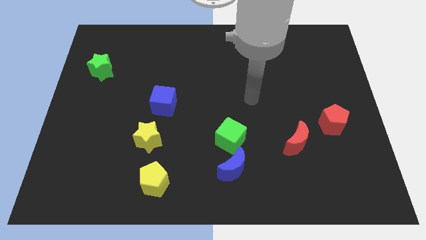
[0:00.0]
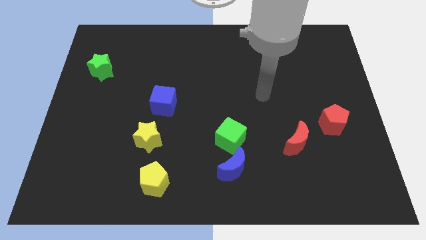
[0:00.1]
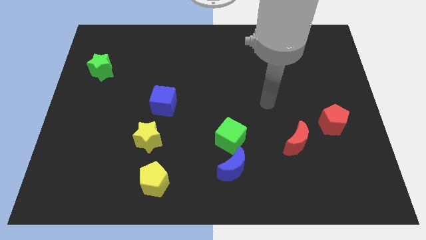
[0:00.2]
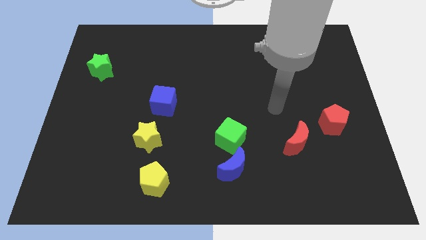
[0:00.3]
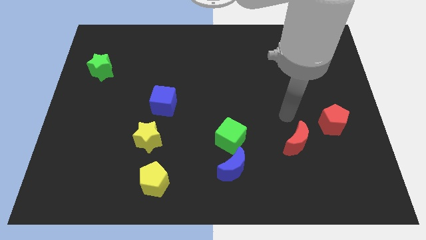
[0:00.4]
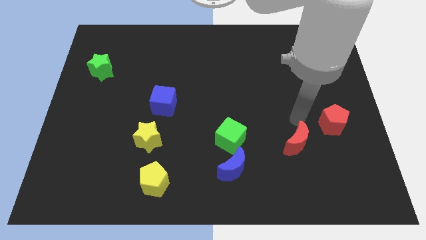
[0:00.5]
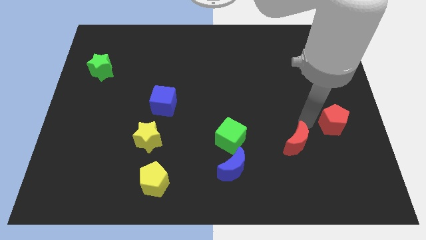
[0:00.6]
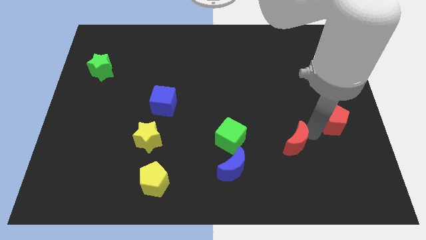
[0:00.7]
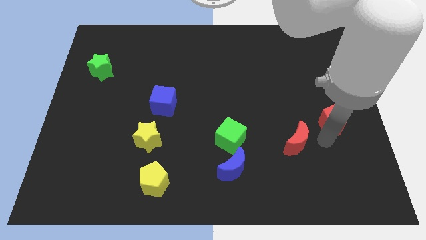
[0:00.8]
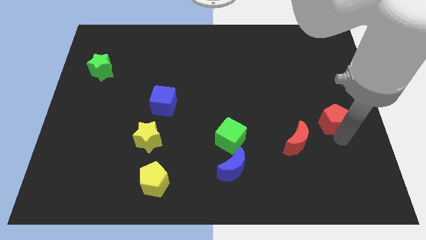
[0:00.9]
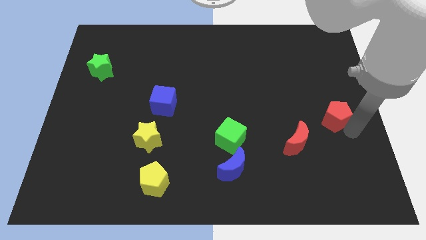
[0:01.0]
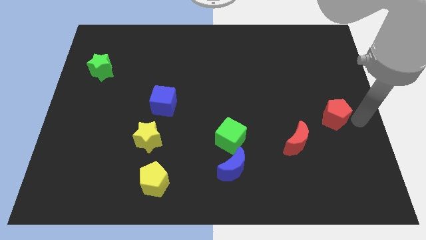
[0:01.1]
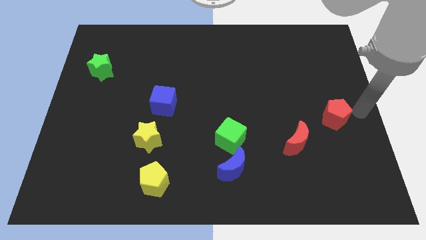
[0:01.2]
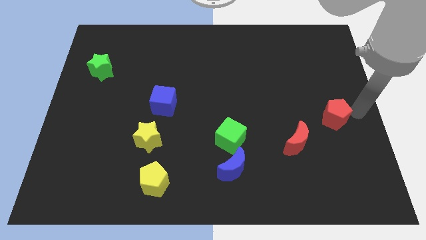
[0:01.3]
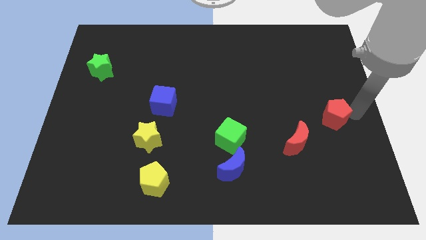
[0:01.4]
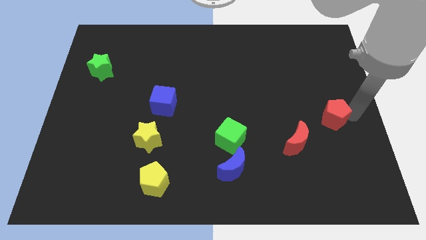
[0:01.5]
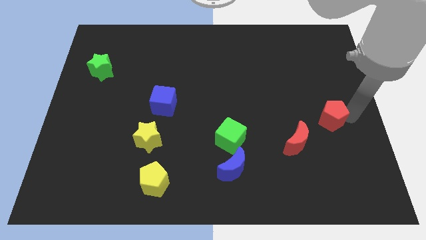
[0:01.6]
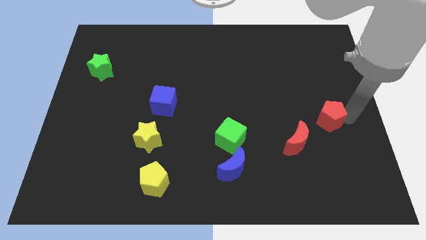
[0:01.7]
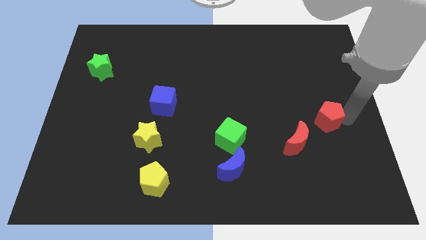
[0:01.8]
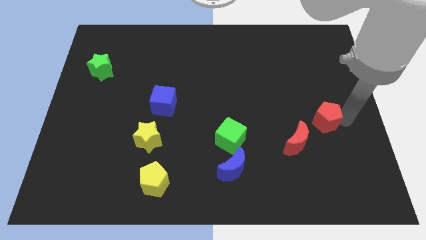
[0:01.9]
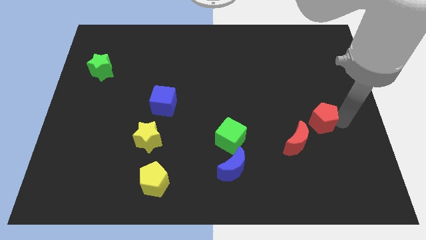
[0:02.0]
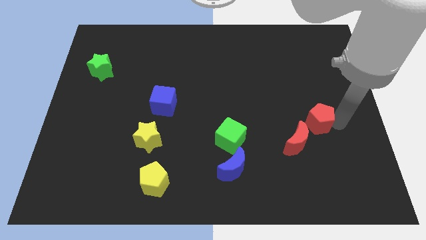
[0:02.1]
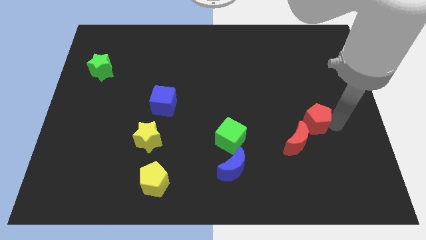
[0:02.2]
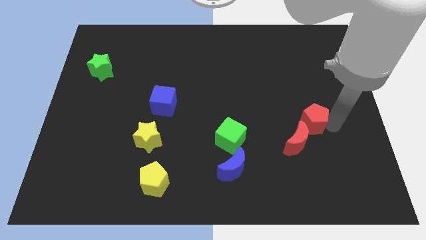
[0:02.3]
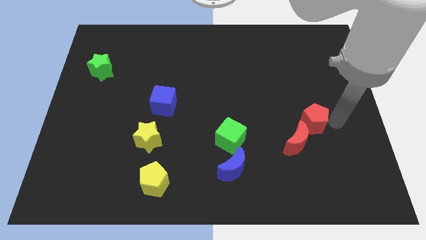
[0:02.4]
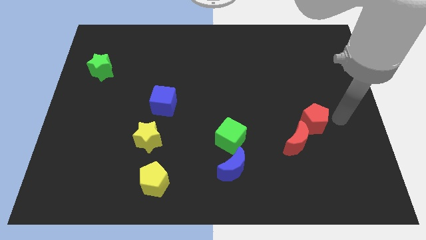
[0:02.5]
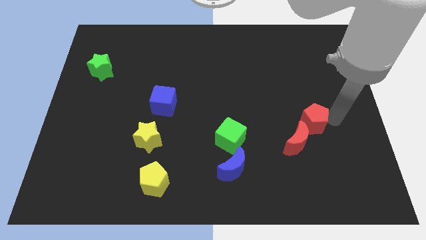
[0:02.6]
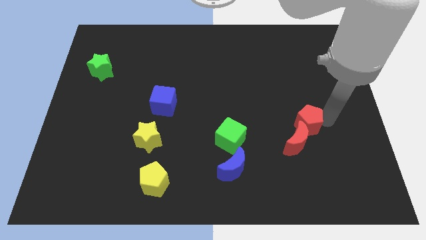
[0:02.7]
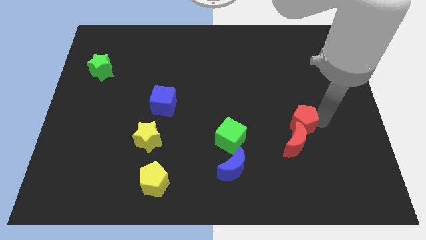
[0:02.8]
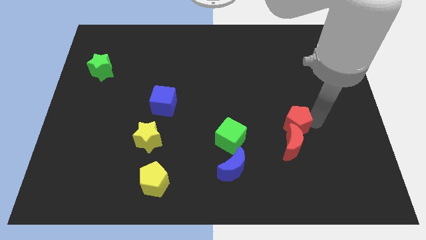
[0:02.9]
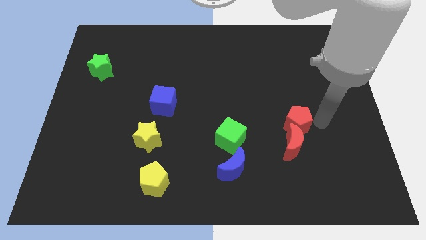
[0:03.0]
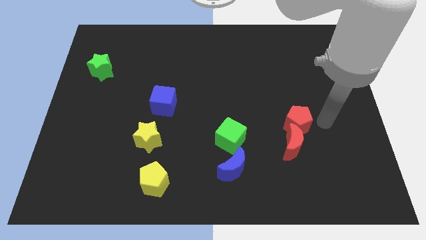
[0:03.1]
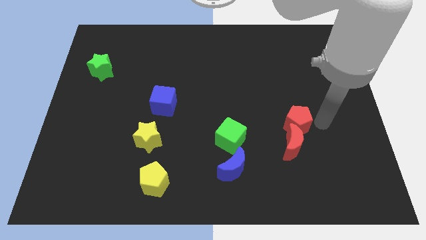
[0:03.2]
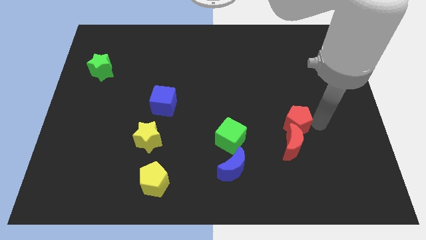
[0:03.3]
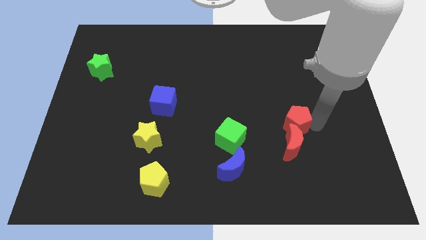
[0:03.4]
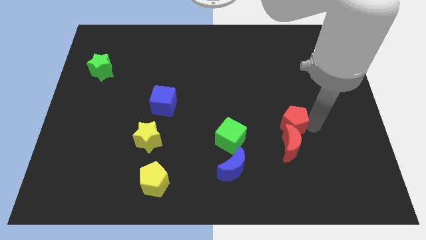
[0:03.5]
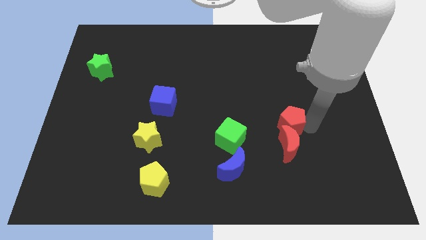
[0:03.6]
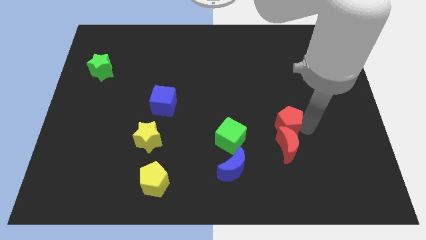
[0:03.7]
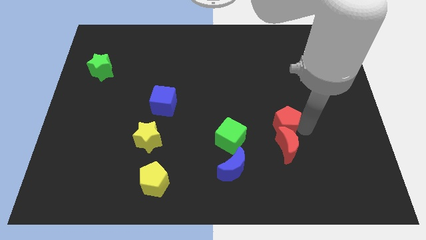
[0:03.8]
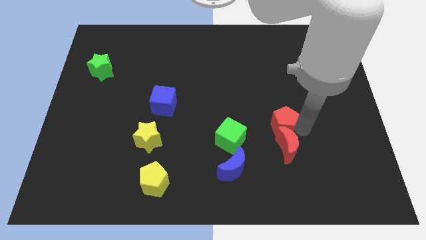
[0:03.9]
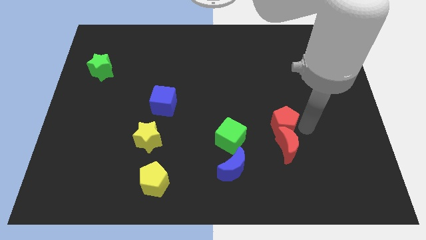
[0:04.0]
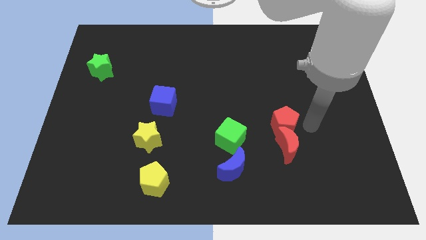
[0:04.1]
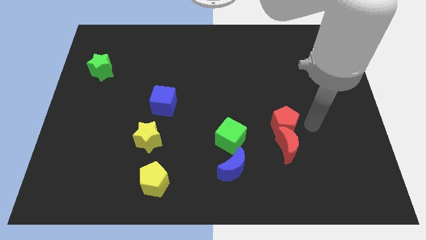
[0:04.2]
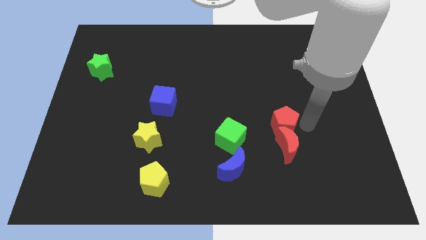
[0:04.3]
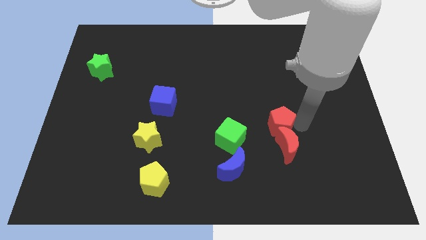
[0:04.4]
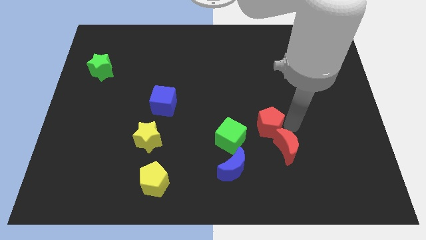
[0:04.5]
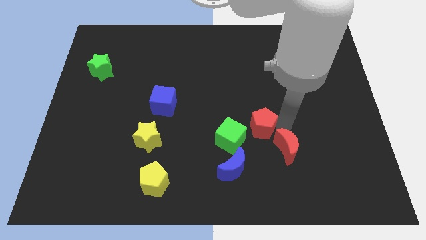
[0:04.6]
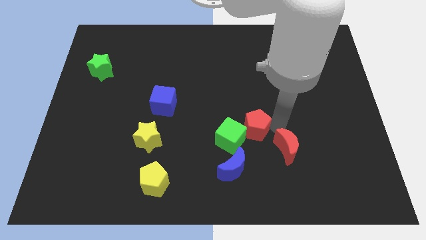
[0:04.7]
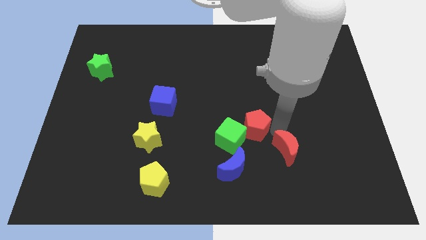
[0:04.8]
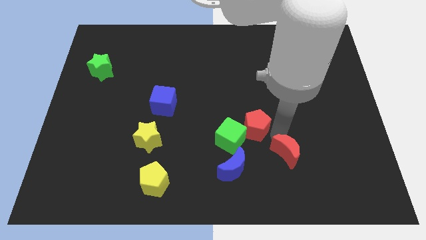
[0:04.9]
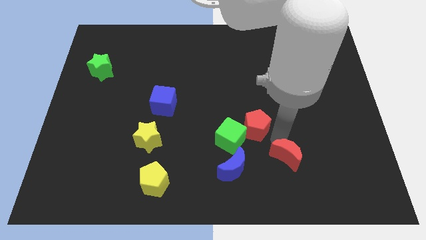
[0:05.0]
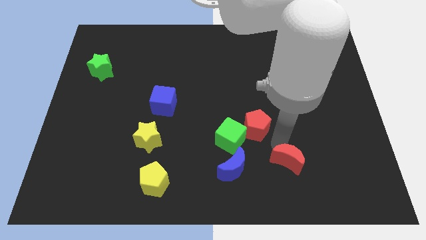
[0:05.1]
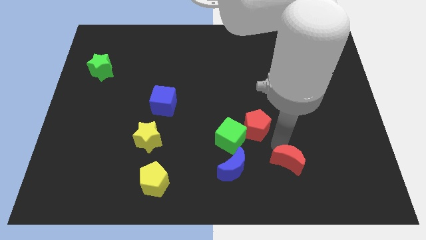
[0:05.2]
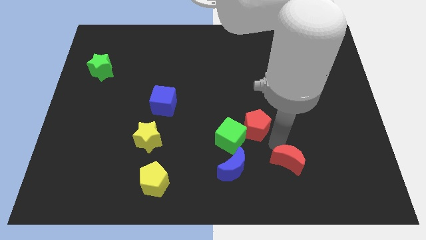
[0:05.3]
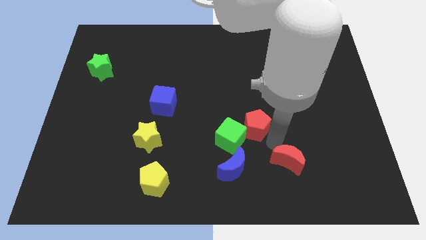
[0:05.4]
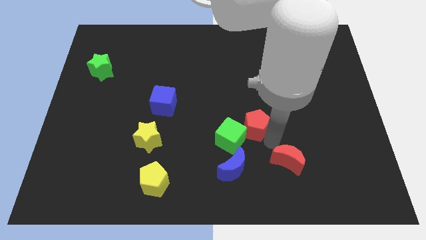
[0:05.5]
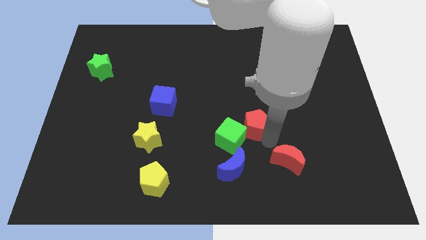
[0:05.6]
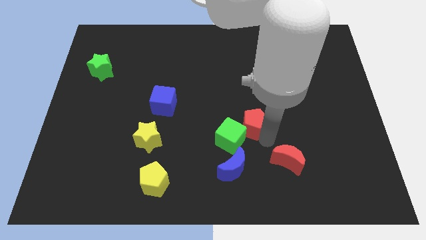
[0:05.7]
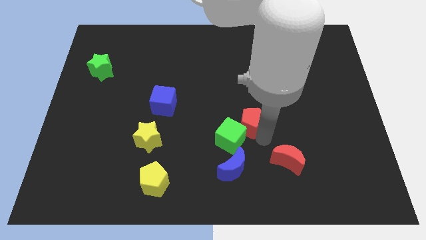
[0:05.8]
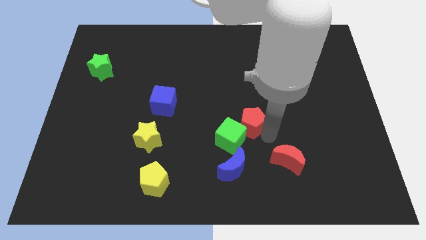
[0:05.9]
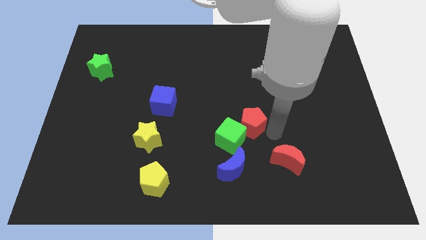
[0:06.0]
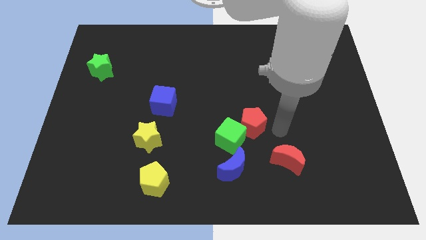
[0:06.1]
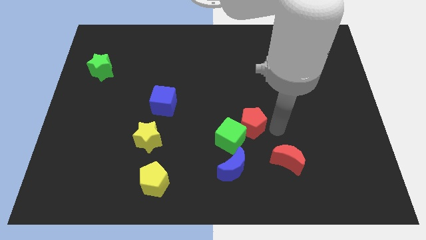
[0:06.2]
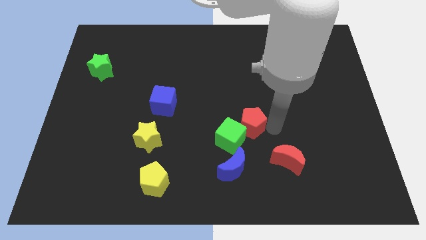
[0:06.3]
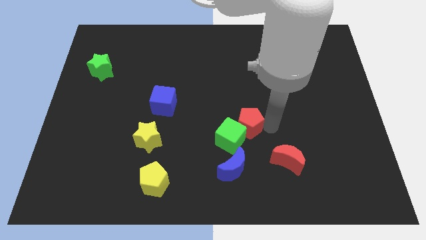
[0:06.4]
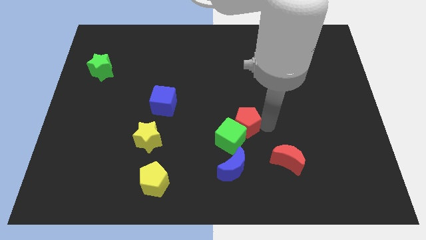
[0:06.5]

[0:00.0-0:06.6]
push the red pentagon left

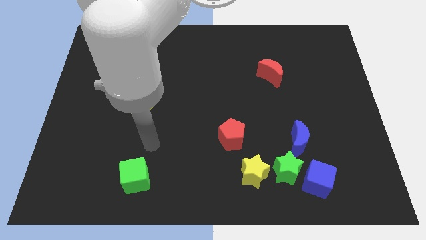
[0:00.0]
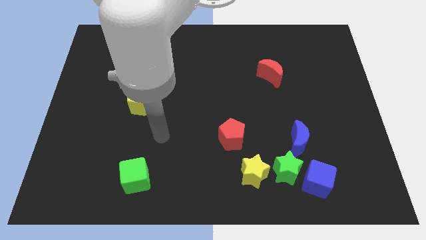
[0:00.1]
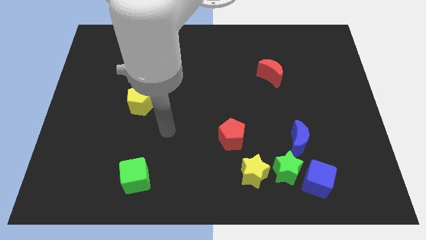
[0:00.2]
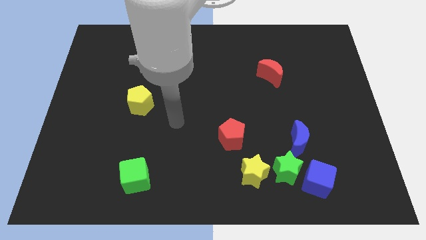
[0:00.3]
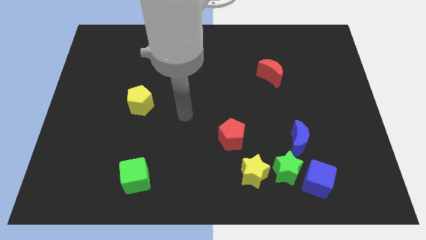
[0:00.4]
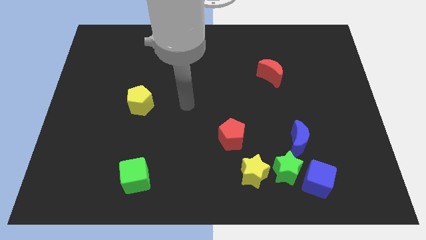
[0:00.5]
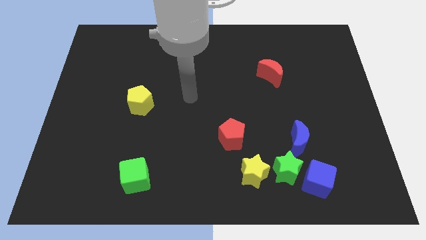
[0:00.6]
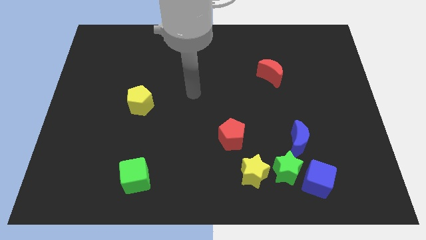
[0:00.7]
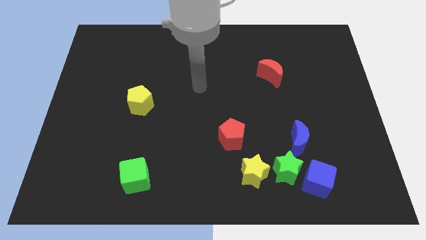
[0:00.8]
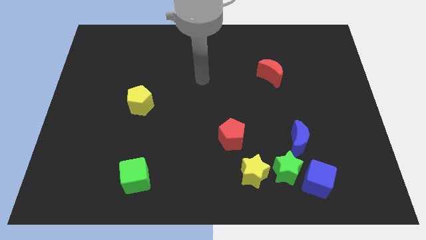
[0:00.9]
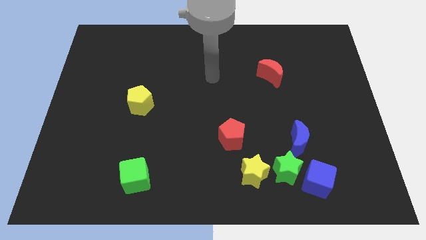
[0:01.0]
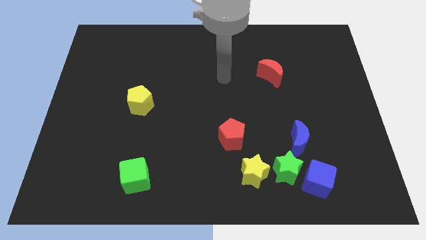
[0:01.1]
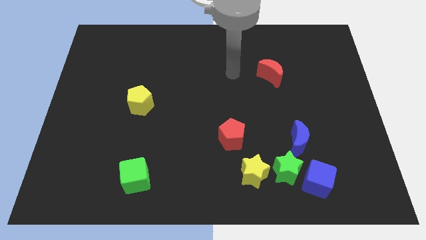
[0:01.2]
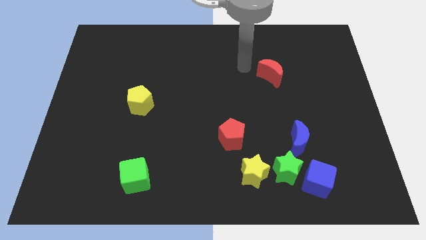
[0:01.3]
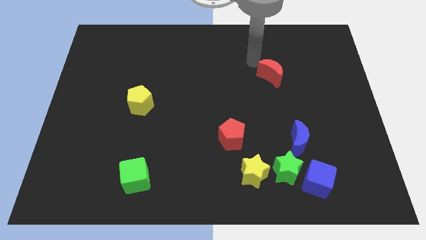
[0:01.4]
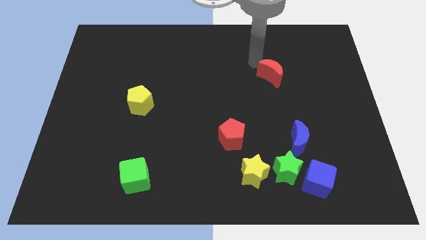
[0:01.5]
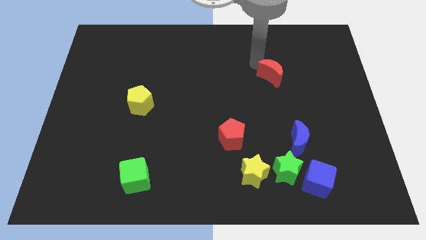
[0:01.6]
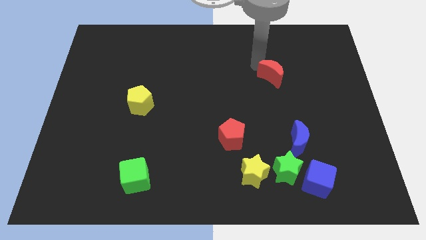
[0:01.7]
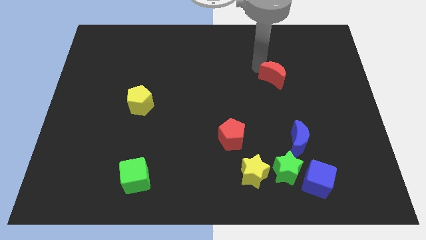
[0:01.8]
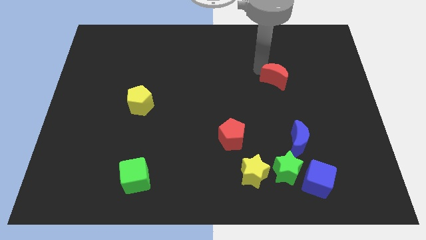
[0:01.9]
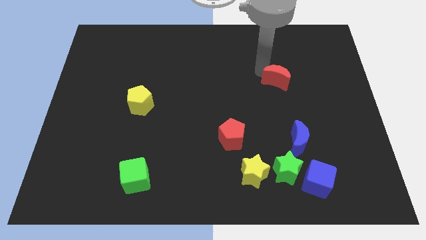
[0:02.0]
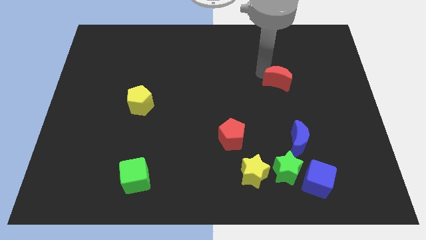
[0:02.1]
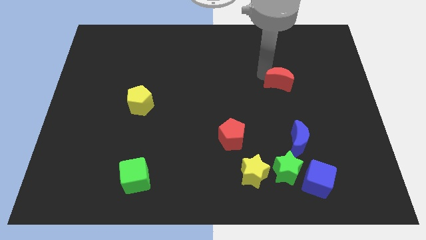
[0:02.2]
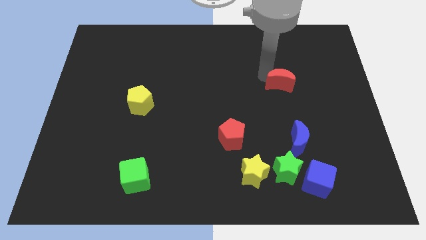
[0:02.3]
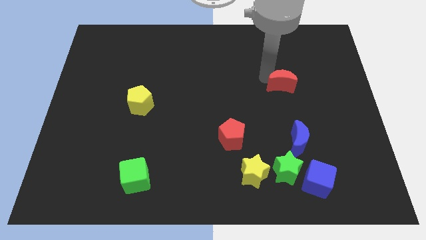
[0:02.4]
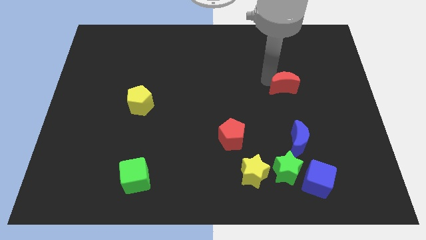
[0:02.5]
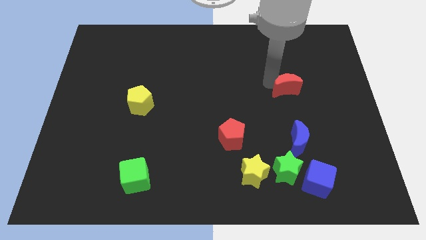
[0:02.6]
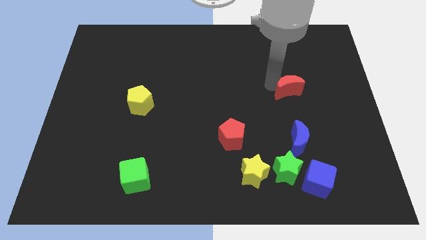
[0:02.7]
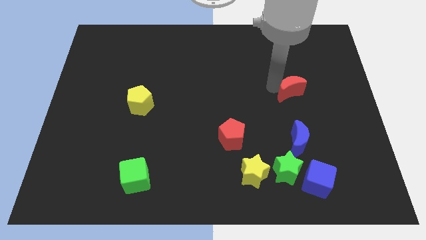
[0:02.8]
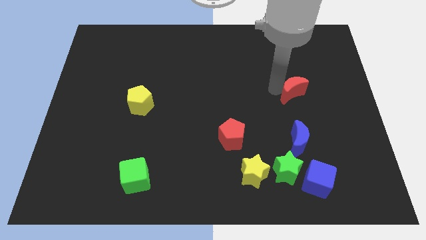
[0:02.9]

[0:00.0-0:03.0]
slightly push the red moon down and right diagonally
